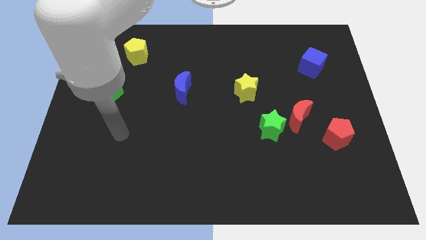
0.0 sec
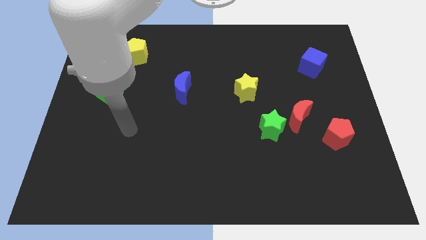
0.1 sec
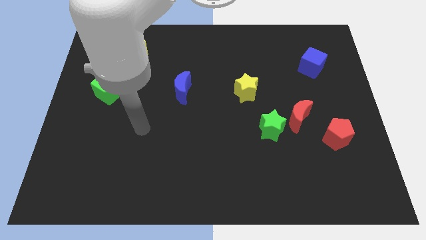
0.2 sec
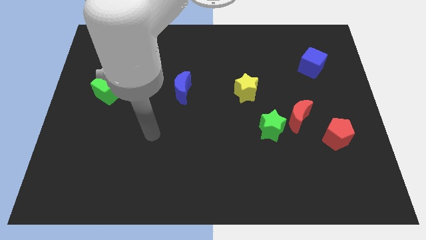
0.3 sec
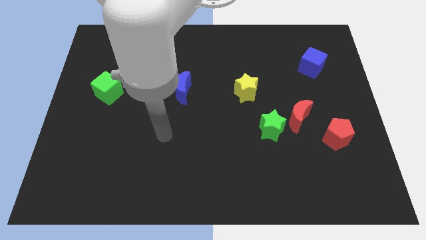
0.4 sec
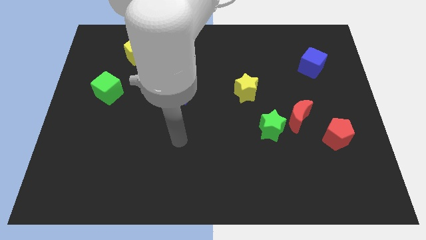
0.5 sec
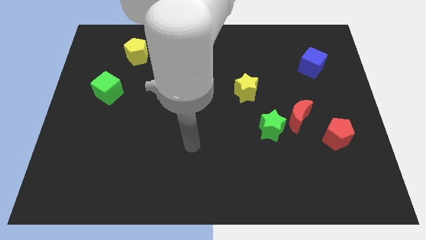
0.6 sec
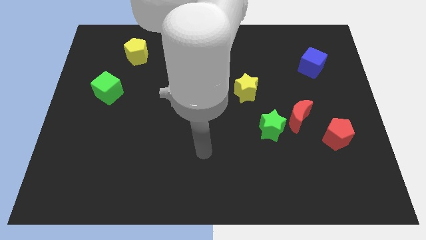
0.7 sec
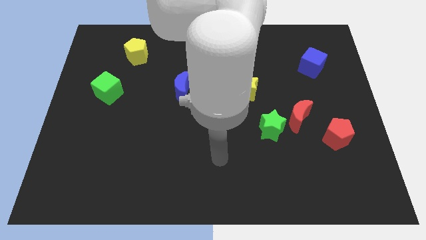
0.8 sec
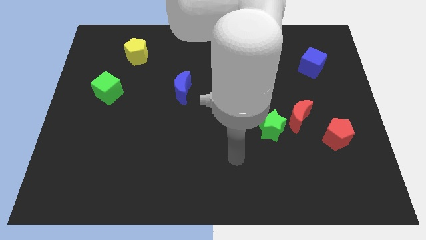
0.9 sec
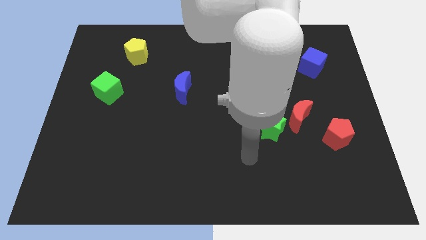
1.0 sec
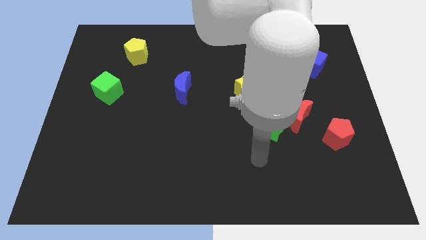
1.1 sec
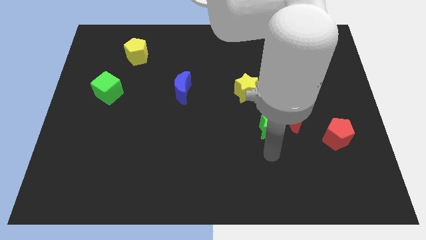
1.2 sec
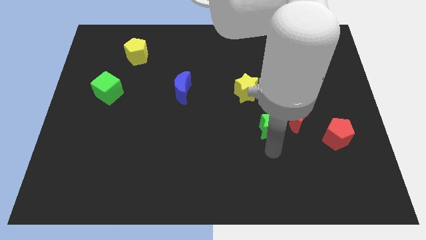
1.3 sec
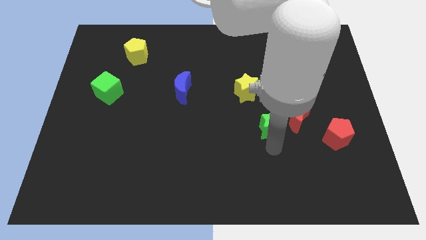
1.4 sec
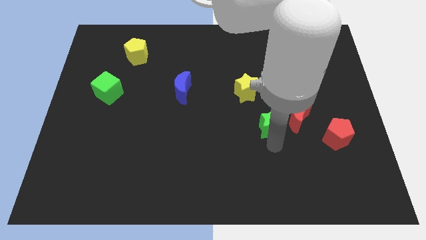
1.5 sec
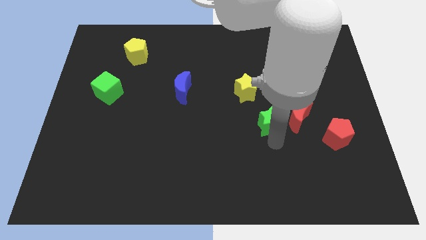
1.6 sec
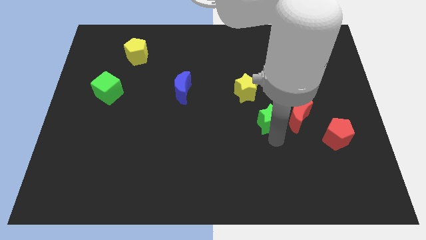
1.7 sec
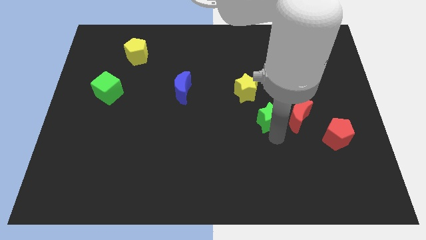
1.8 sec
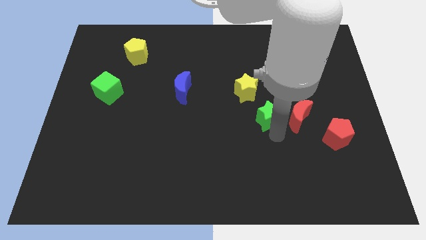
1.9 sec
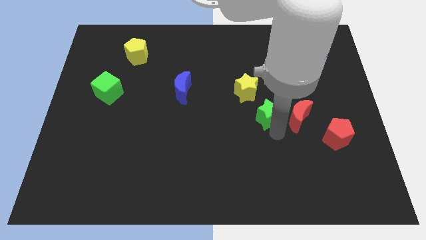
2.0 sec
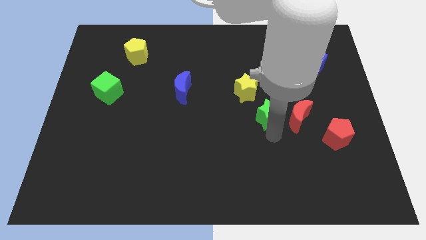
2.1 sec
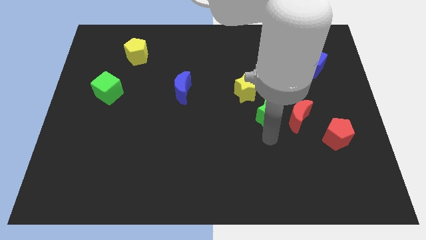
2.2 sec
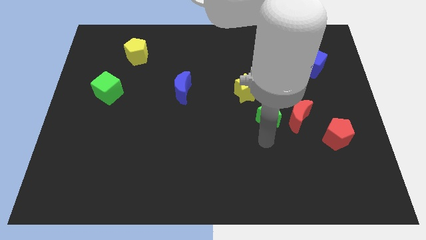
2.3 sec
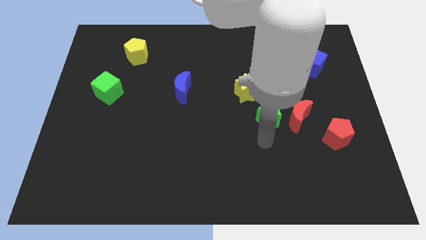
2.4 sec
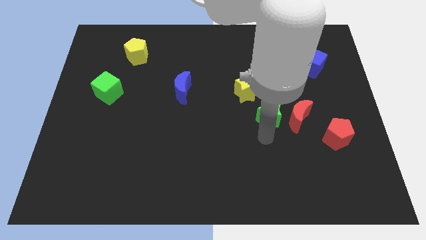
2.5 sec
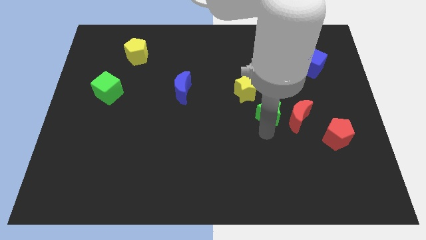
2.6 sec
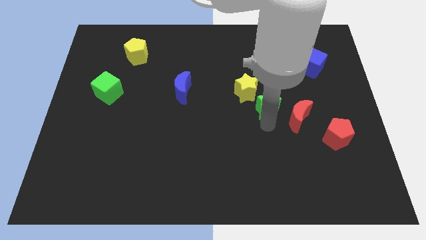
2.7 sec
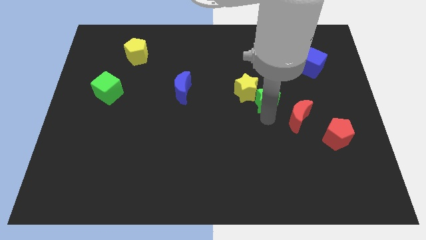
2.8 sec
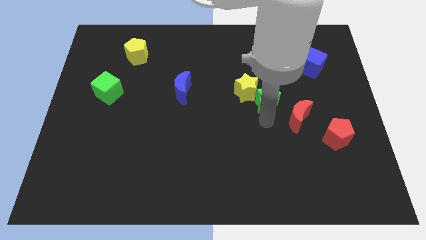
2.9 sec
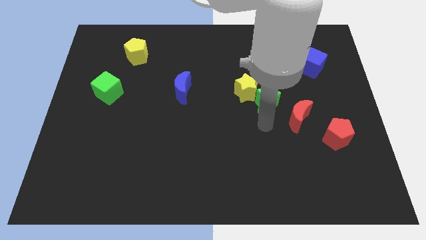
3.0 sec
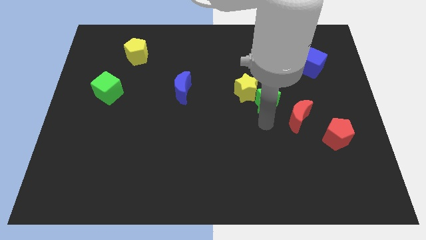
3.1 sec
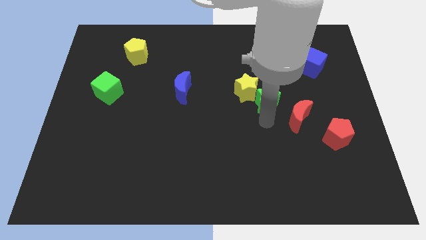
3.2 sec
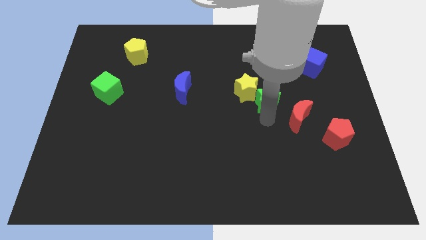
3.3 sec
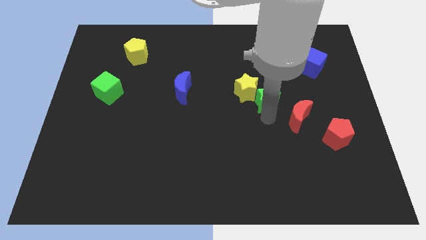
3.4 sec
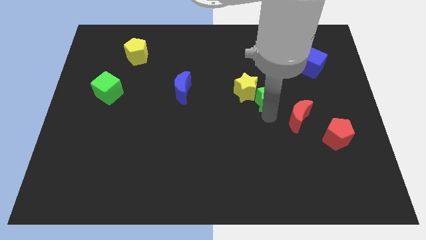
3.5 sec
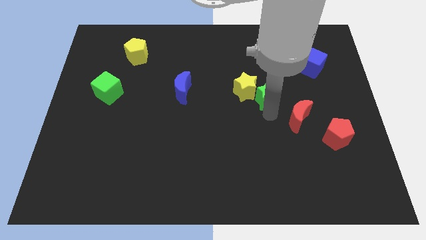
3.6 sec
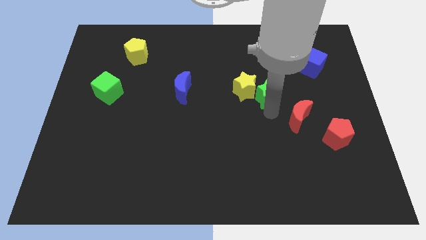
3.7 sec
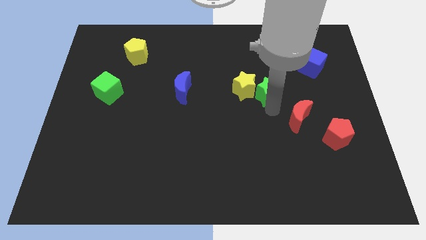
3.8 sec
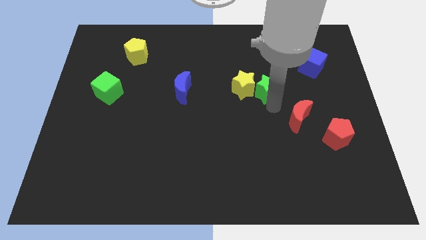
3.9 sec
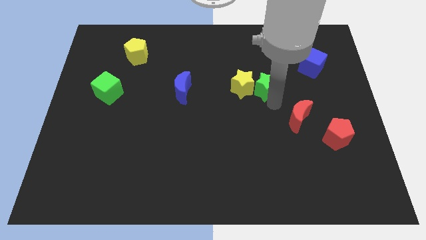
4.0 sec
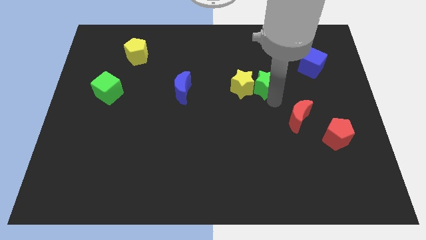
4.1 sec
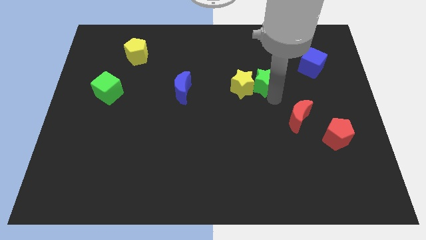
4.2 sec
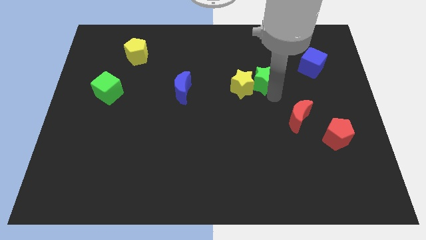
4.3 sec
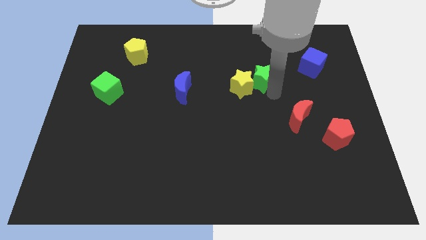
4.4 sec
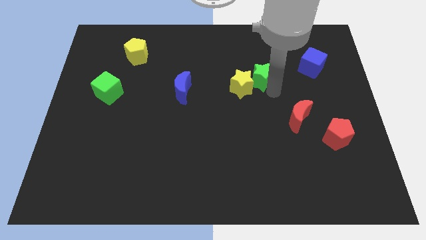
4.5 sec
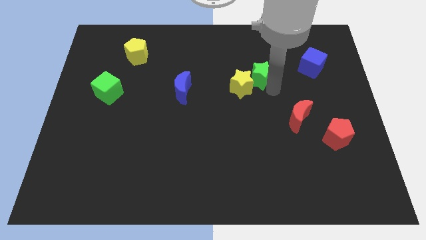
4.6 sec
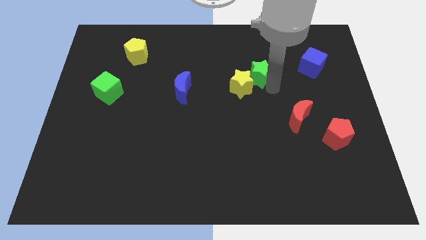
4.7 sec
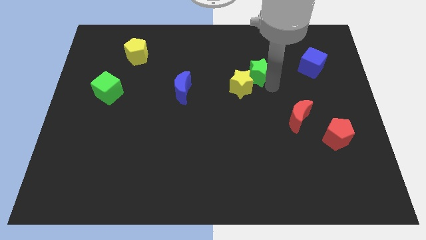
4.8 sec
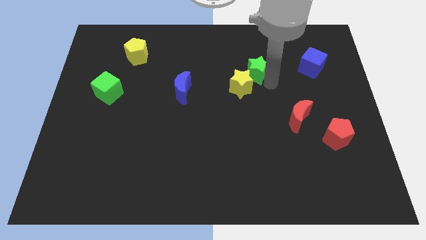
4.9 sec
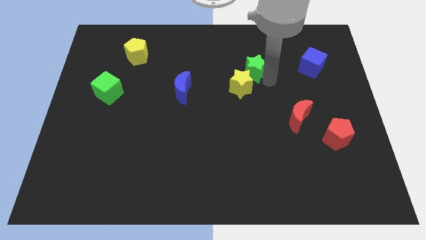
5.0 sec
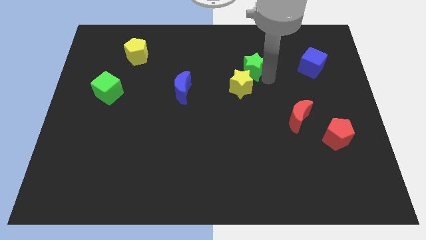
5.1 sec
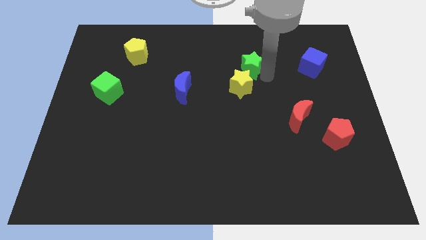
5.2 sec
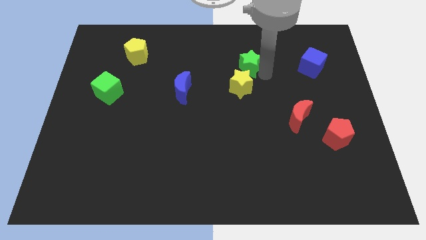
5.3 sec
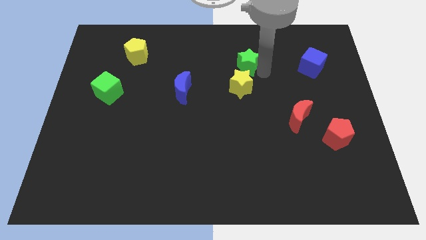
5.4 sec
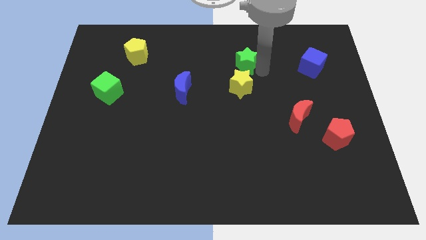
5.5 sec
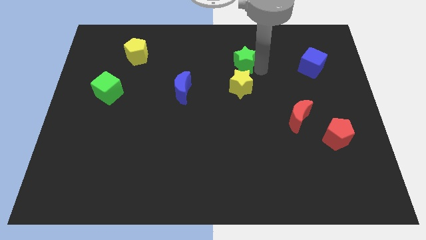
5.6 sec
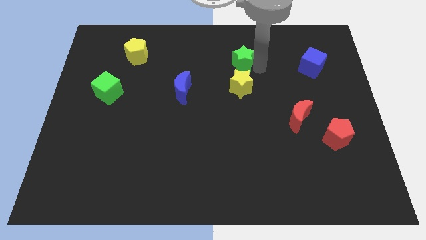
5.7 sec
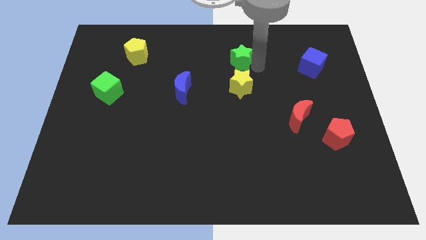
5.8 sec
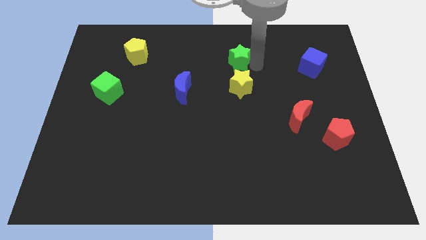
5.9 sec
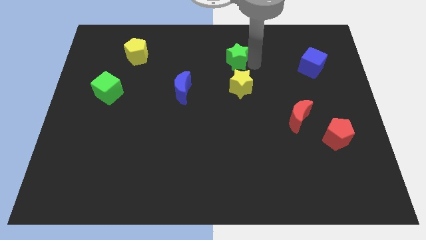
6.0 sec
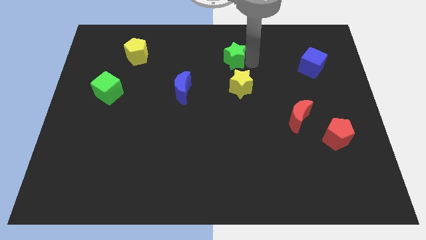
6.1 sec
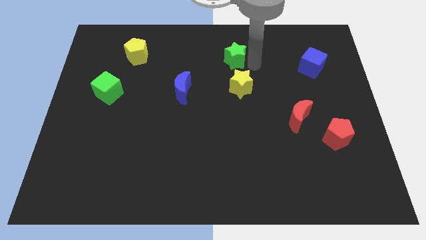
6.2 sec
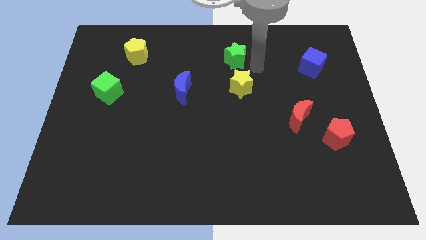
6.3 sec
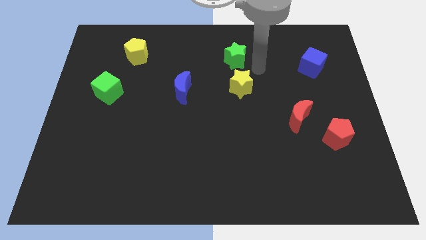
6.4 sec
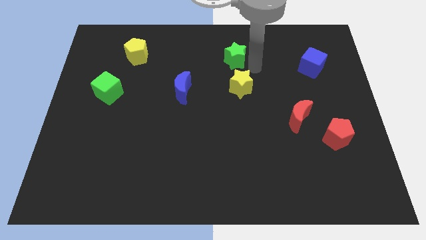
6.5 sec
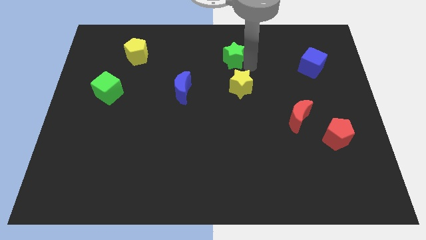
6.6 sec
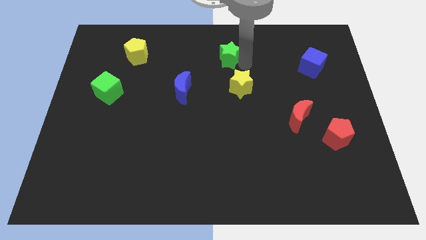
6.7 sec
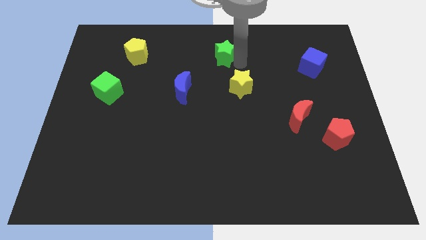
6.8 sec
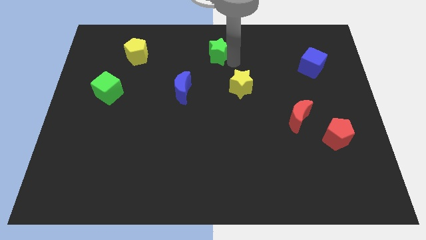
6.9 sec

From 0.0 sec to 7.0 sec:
move the green star to the towards your base
